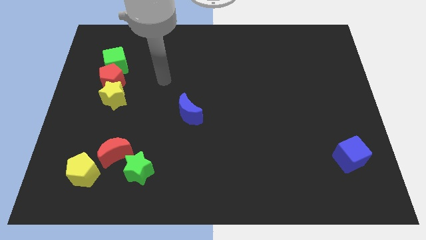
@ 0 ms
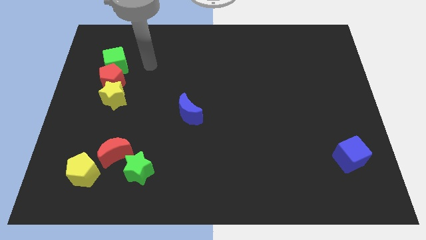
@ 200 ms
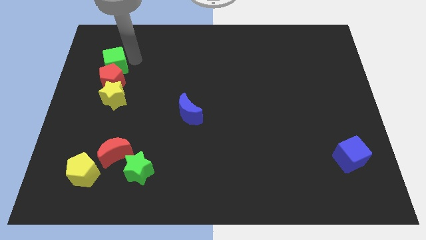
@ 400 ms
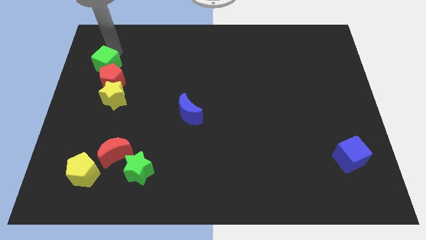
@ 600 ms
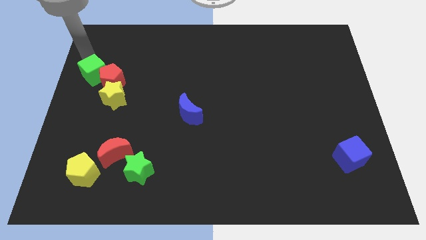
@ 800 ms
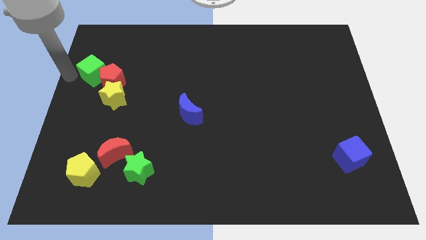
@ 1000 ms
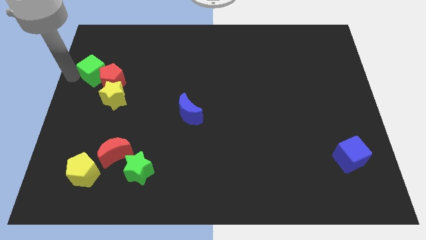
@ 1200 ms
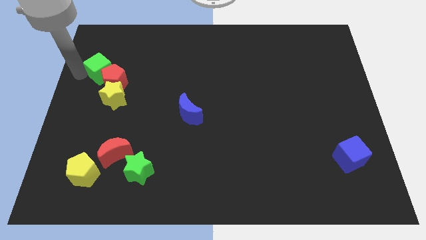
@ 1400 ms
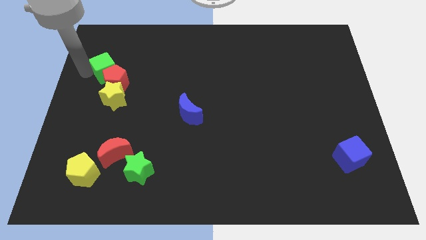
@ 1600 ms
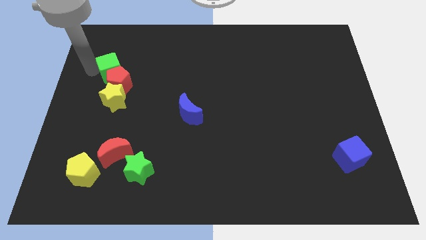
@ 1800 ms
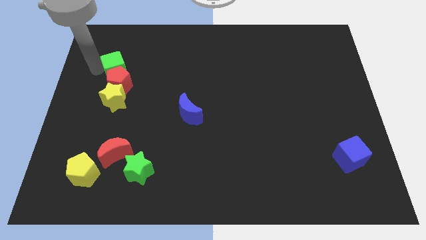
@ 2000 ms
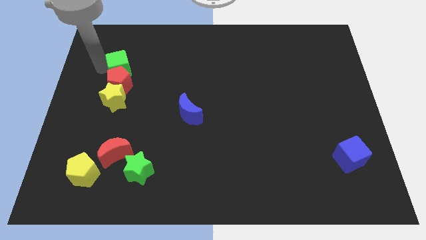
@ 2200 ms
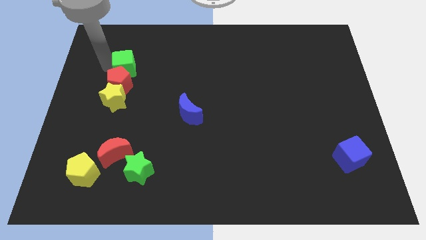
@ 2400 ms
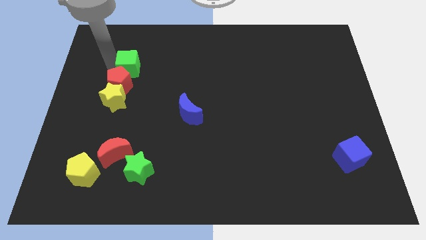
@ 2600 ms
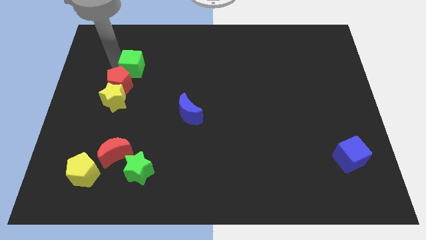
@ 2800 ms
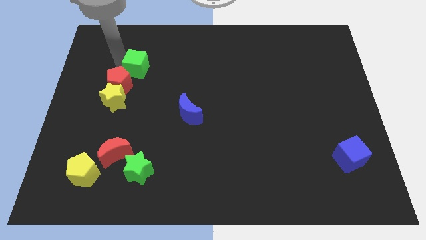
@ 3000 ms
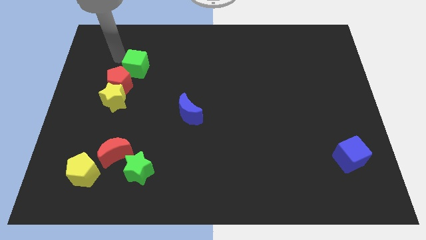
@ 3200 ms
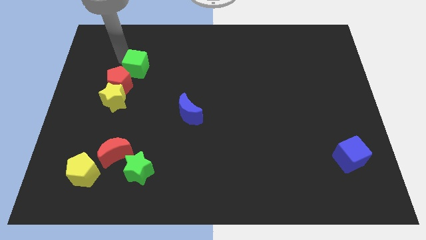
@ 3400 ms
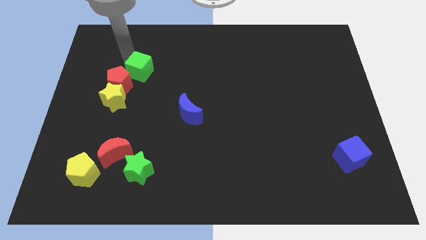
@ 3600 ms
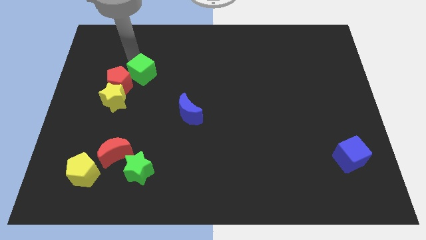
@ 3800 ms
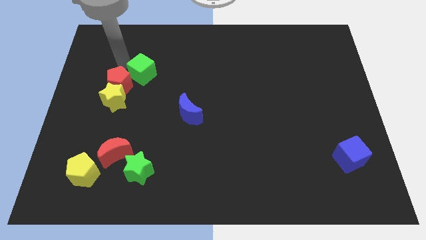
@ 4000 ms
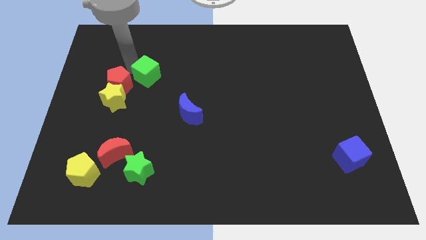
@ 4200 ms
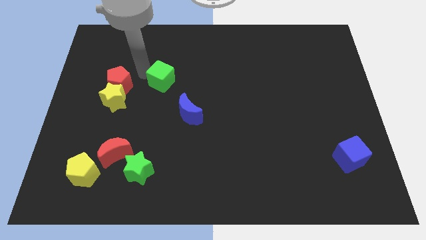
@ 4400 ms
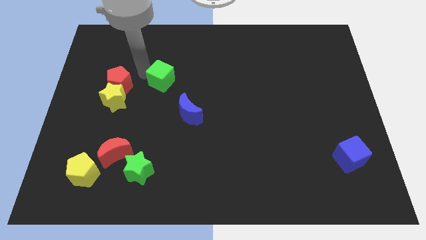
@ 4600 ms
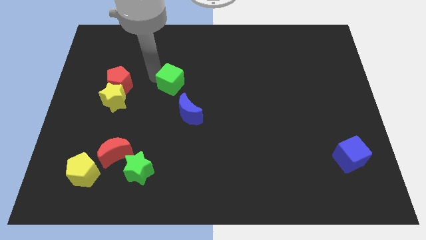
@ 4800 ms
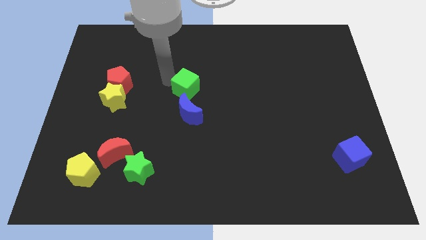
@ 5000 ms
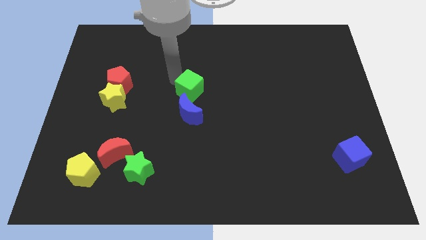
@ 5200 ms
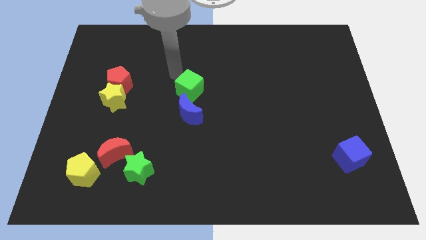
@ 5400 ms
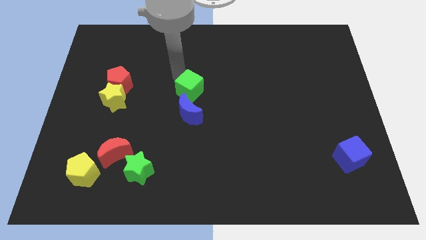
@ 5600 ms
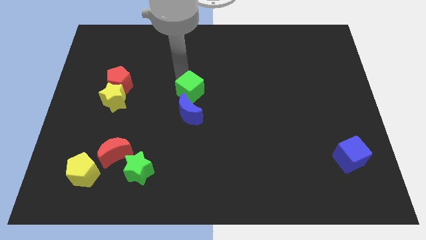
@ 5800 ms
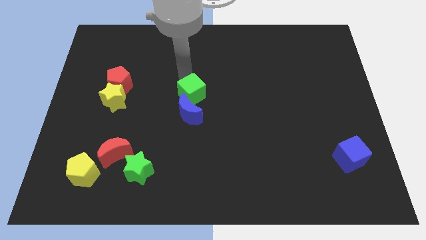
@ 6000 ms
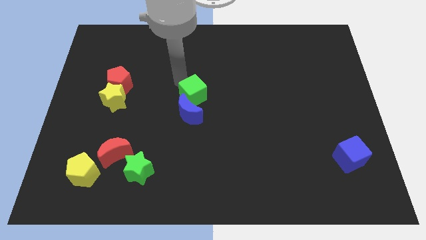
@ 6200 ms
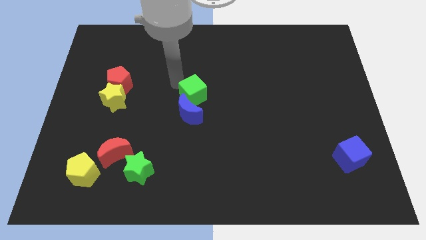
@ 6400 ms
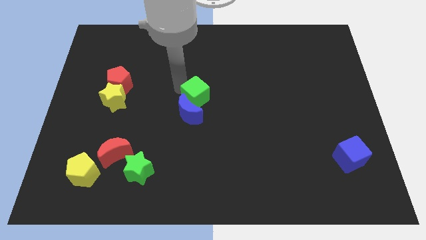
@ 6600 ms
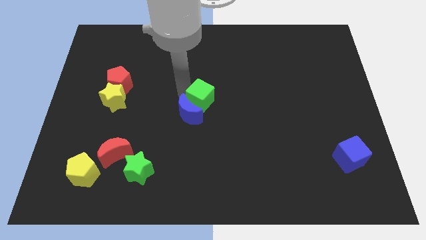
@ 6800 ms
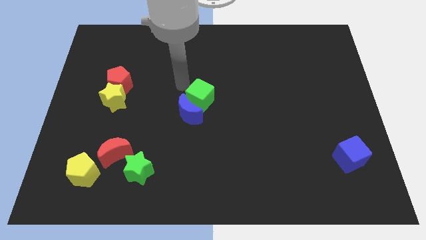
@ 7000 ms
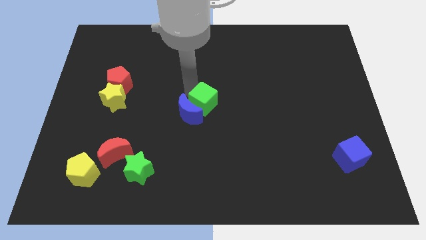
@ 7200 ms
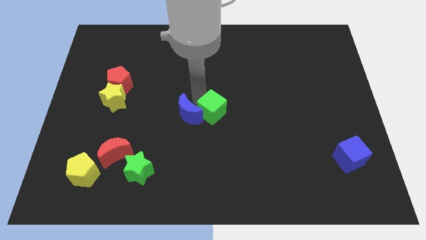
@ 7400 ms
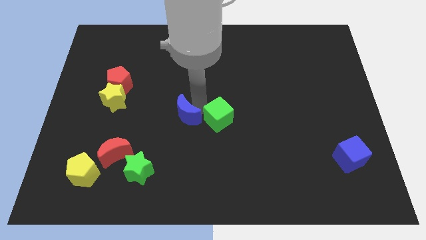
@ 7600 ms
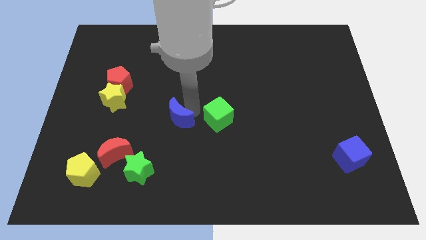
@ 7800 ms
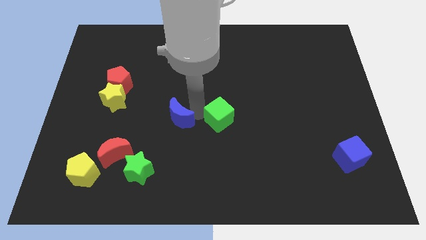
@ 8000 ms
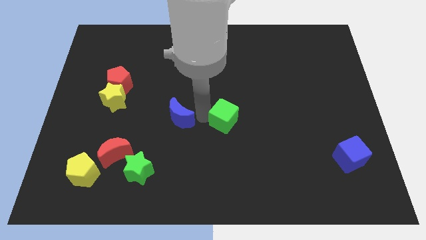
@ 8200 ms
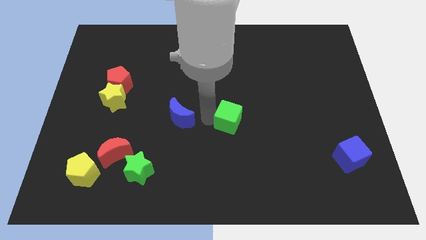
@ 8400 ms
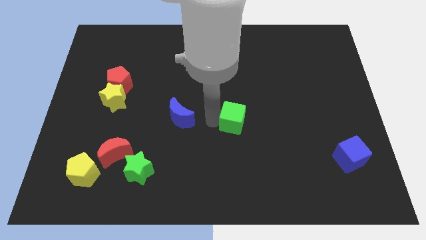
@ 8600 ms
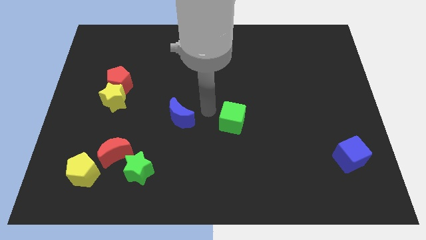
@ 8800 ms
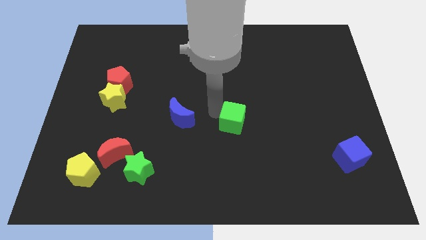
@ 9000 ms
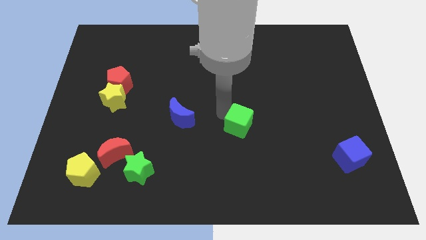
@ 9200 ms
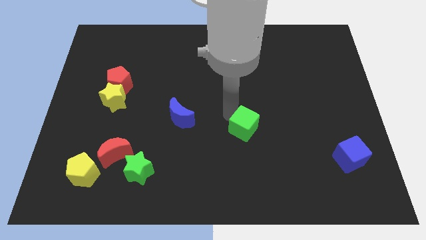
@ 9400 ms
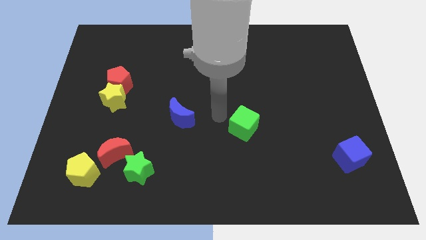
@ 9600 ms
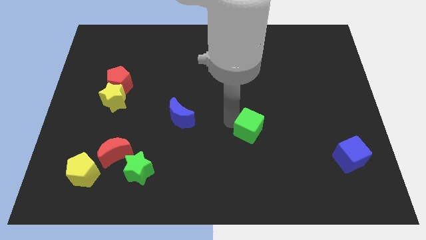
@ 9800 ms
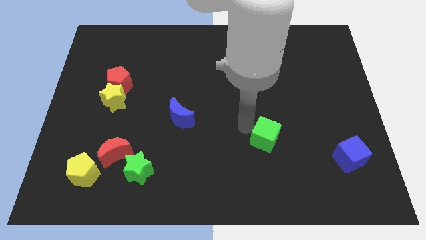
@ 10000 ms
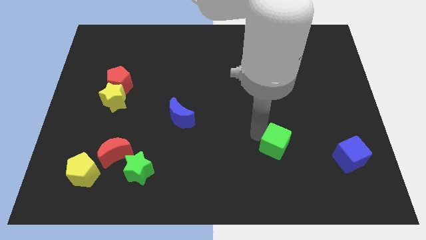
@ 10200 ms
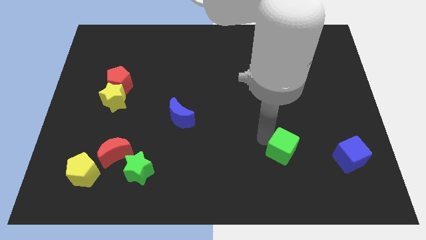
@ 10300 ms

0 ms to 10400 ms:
slide the green cube to the left of the blue cube

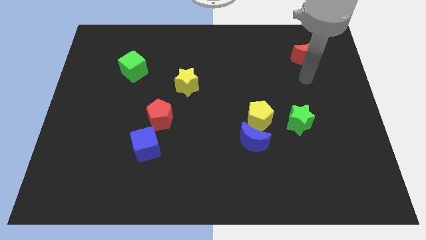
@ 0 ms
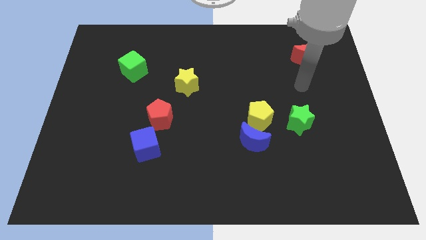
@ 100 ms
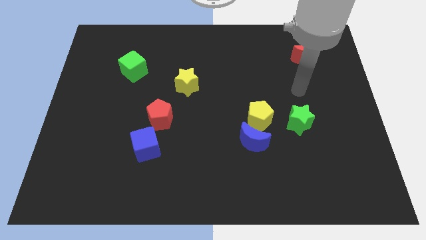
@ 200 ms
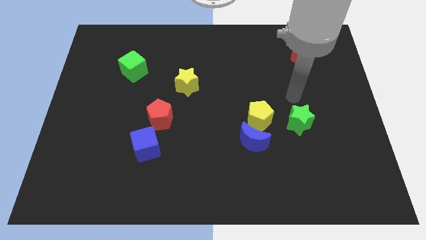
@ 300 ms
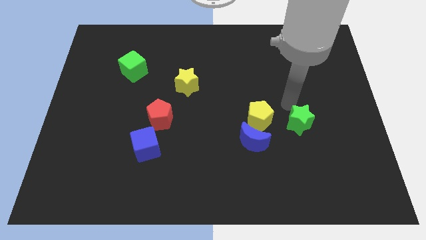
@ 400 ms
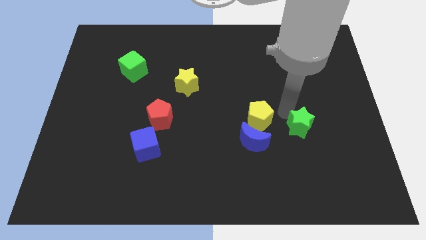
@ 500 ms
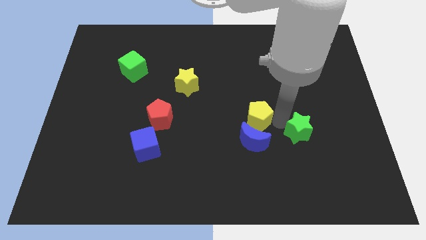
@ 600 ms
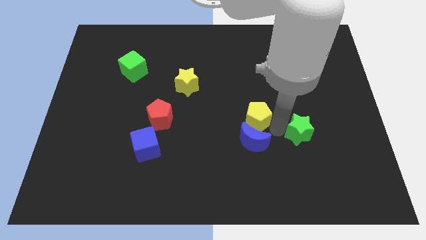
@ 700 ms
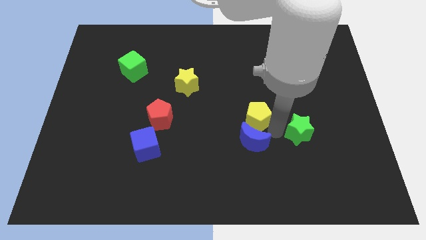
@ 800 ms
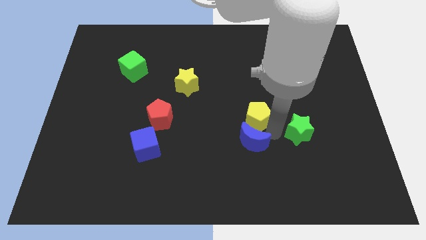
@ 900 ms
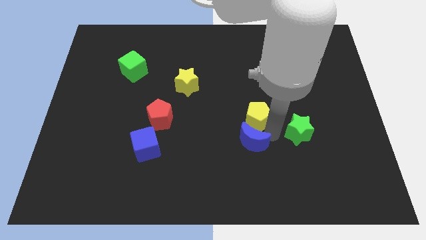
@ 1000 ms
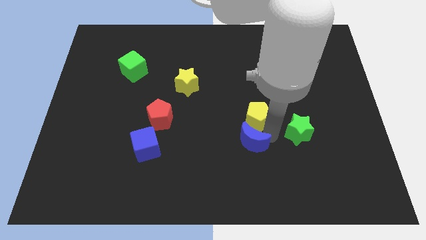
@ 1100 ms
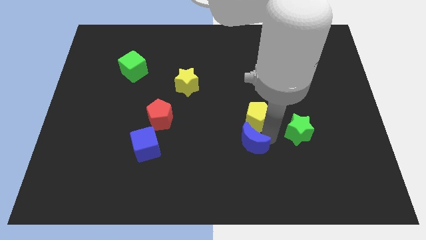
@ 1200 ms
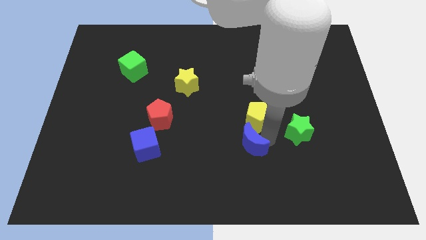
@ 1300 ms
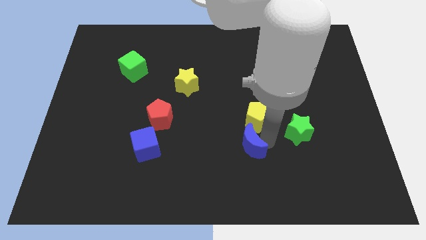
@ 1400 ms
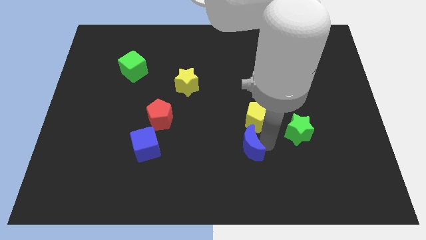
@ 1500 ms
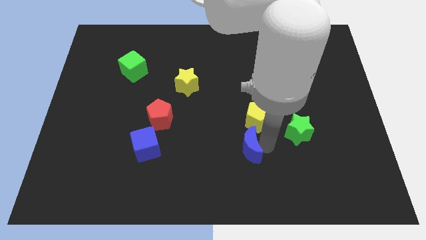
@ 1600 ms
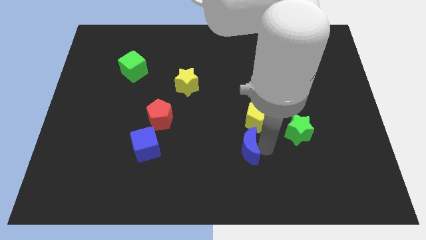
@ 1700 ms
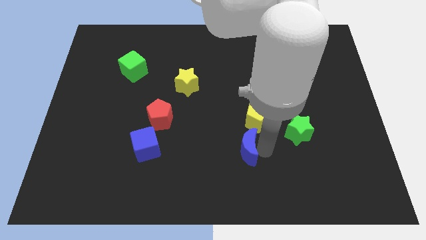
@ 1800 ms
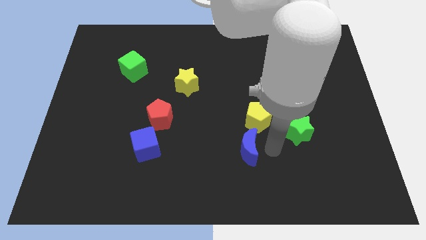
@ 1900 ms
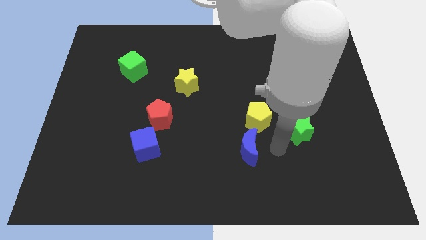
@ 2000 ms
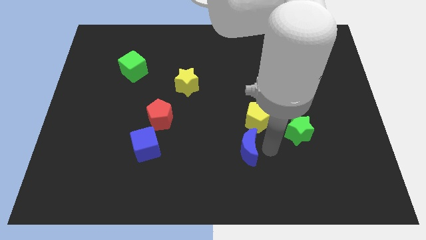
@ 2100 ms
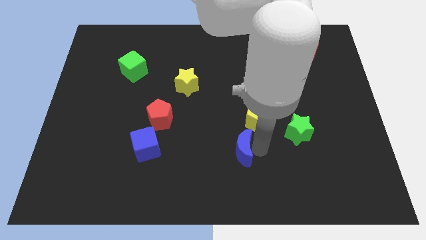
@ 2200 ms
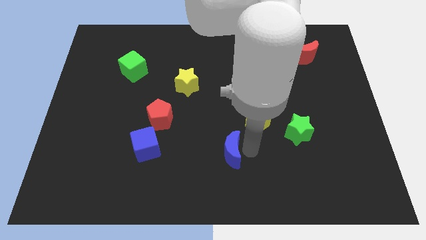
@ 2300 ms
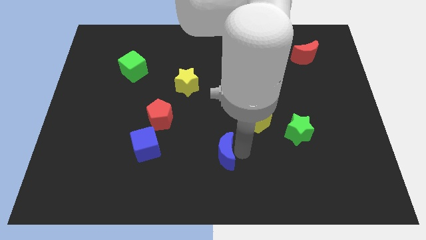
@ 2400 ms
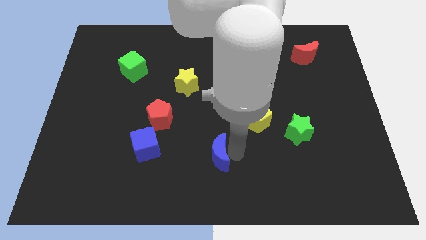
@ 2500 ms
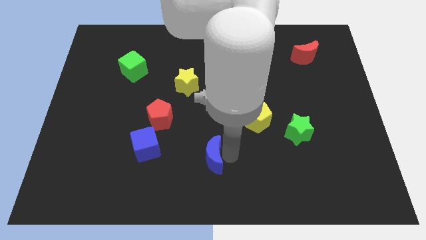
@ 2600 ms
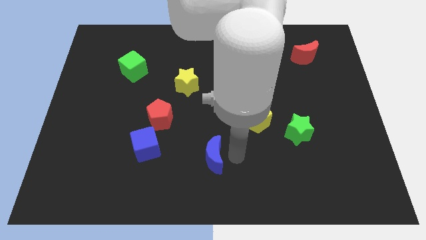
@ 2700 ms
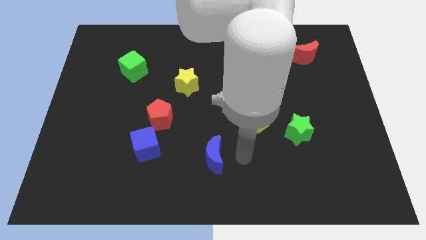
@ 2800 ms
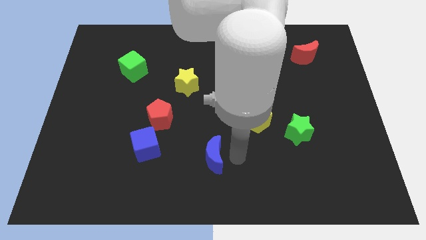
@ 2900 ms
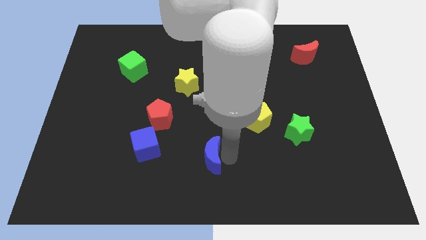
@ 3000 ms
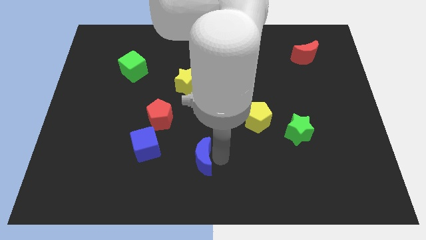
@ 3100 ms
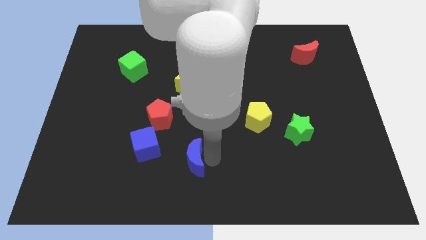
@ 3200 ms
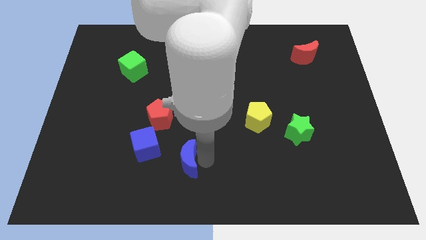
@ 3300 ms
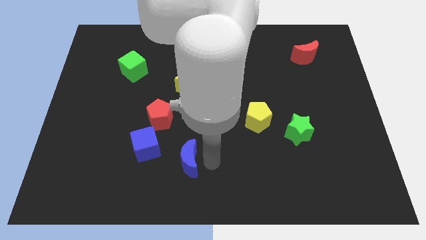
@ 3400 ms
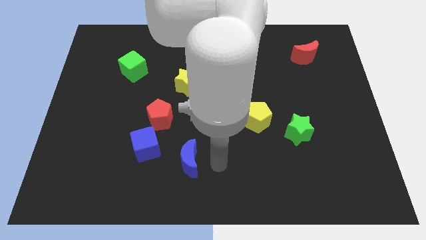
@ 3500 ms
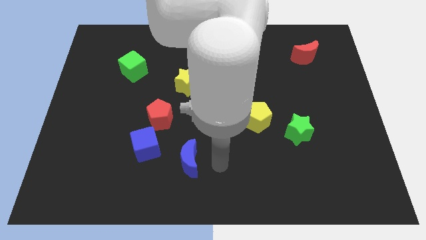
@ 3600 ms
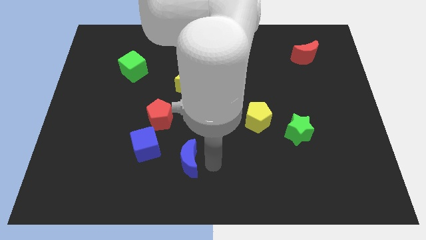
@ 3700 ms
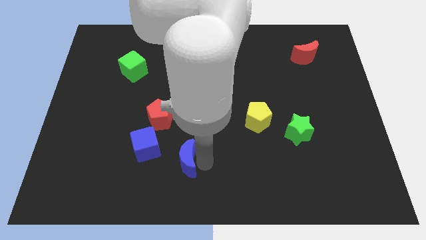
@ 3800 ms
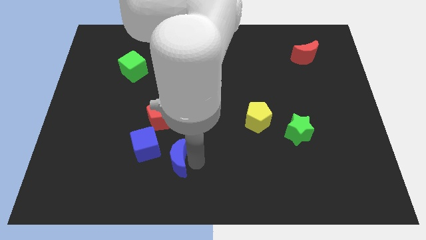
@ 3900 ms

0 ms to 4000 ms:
put the blue moon below the red pentagon
